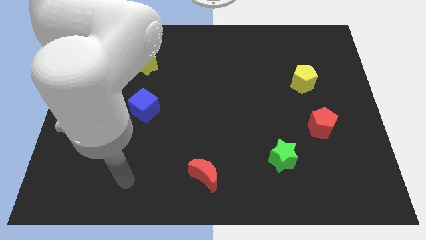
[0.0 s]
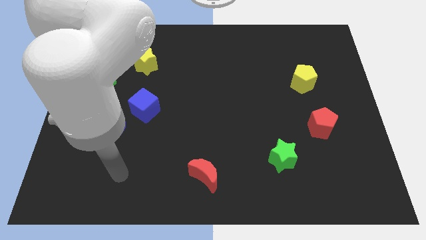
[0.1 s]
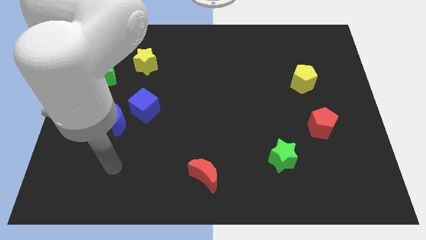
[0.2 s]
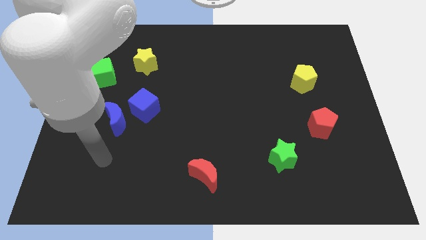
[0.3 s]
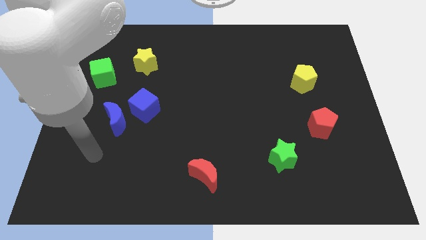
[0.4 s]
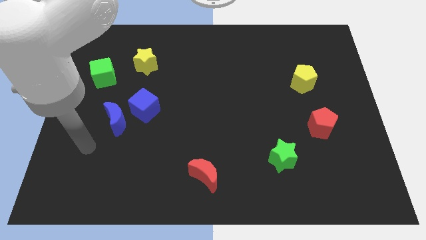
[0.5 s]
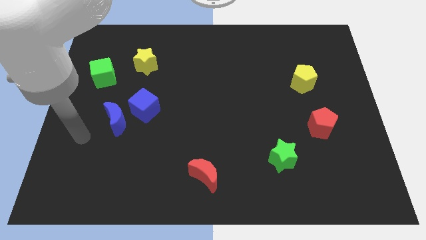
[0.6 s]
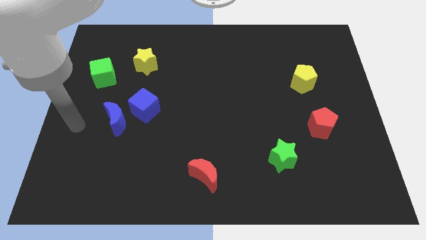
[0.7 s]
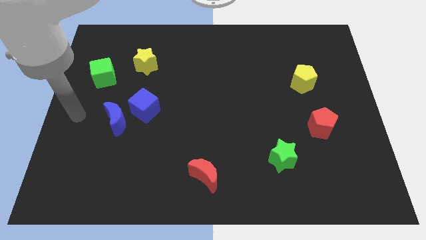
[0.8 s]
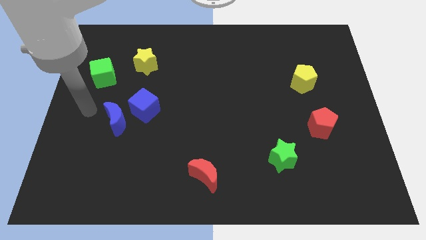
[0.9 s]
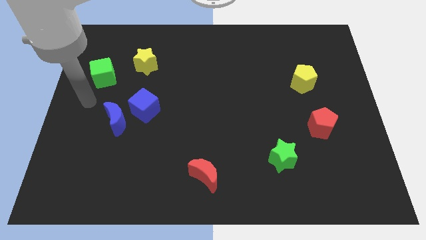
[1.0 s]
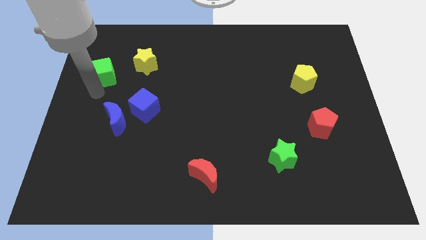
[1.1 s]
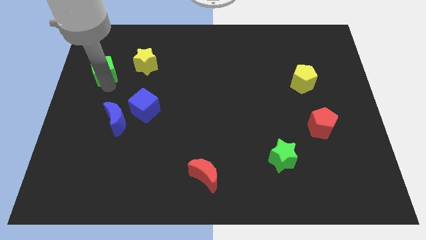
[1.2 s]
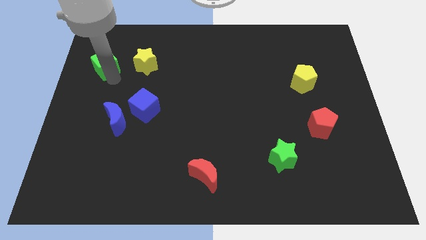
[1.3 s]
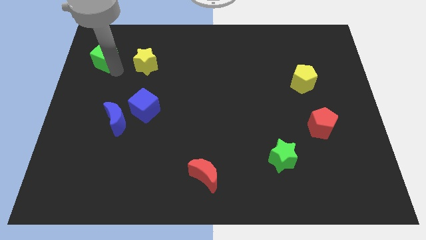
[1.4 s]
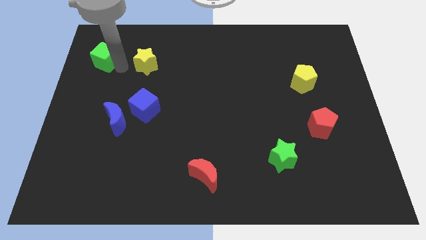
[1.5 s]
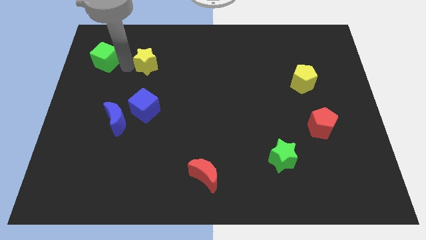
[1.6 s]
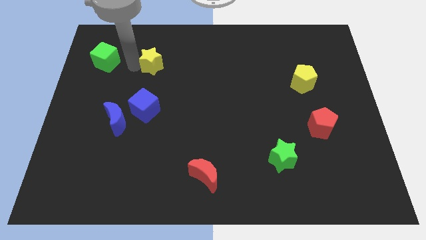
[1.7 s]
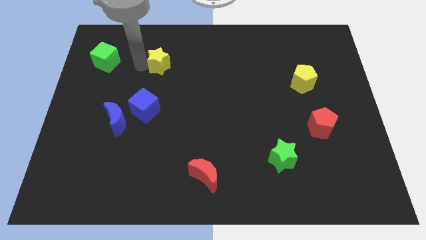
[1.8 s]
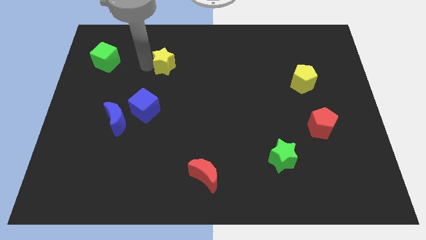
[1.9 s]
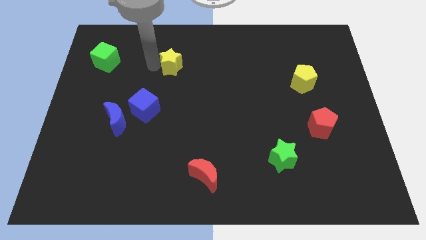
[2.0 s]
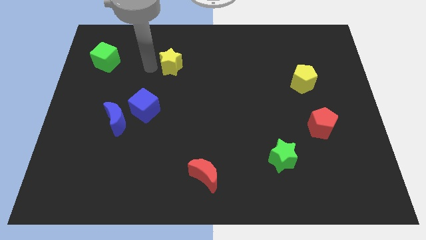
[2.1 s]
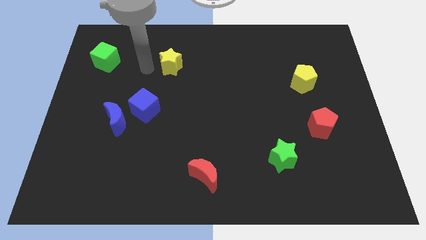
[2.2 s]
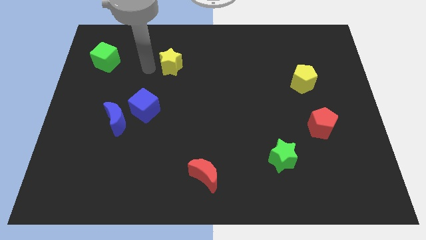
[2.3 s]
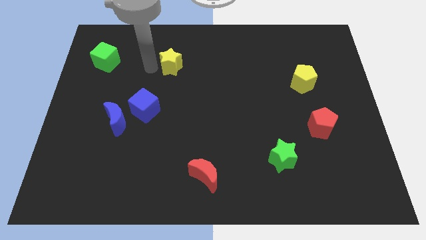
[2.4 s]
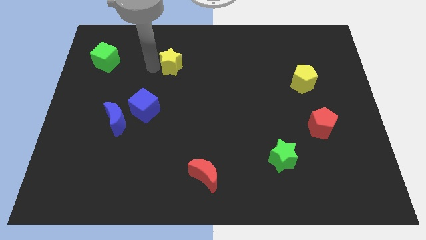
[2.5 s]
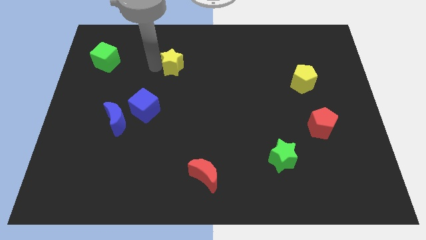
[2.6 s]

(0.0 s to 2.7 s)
push the yellow star a bit to the right

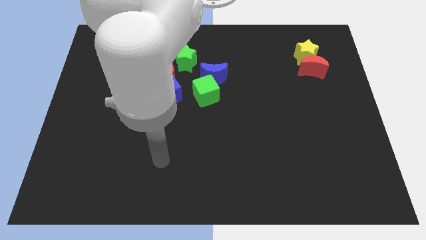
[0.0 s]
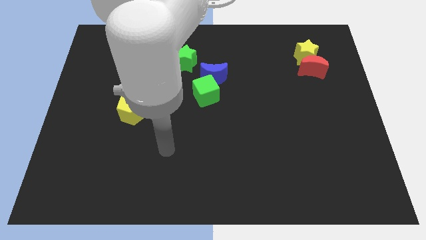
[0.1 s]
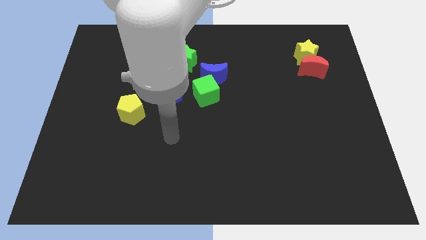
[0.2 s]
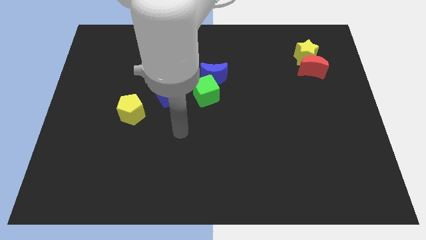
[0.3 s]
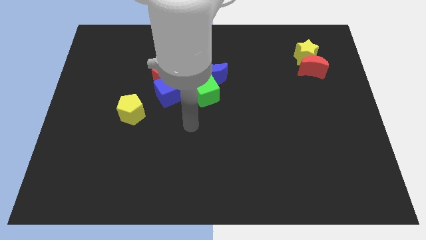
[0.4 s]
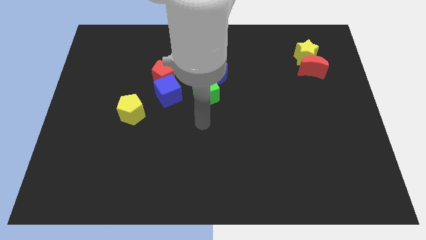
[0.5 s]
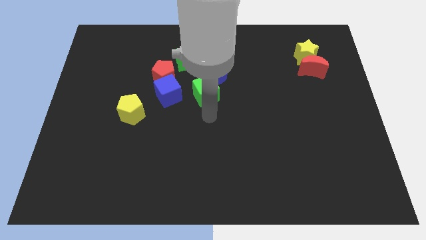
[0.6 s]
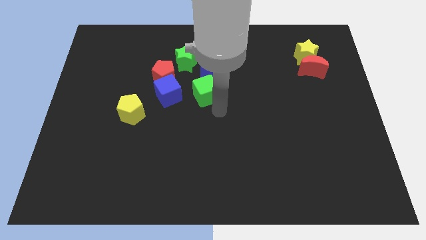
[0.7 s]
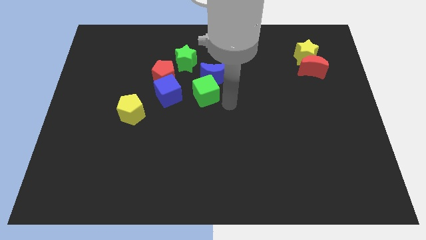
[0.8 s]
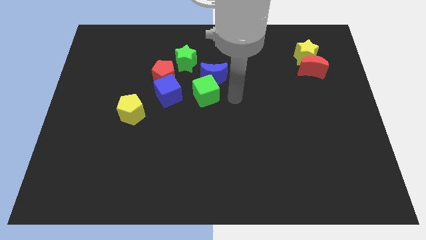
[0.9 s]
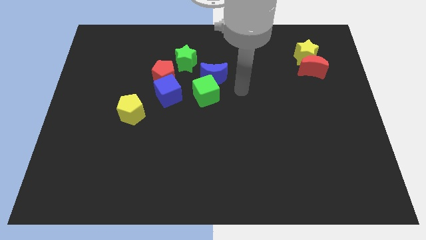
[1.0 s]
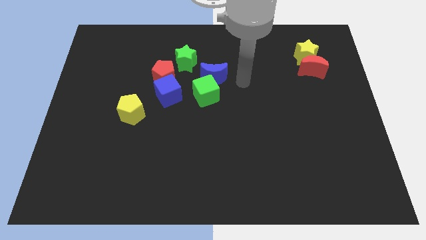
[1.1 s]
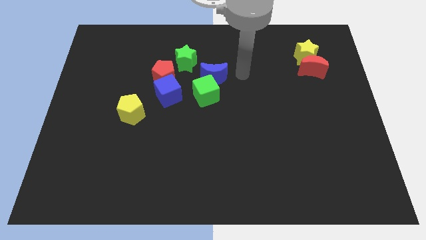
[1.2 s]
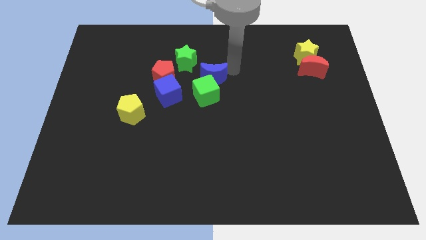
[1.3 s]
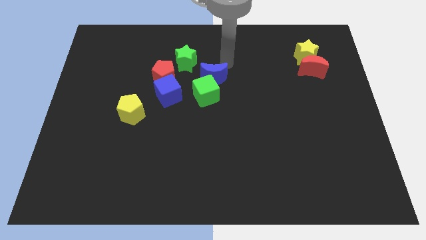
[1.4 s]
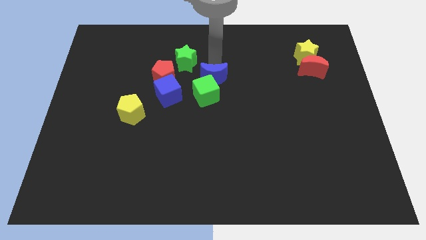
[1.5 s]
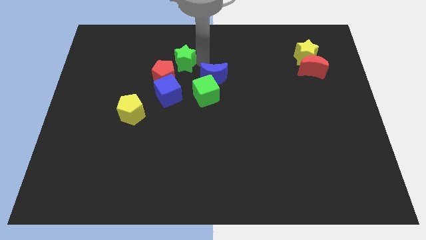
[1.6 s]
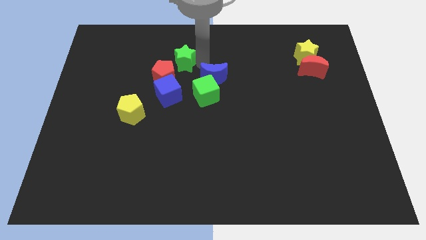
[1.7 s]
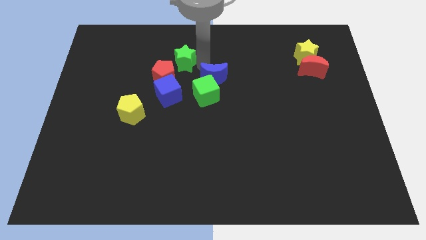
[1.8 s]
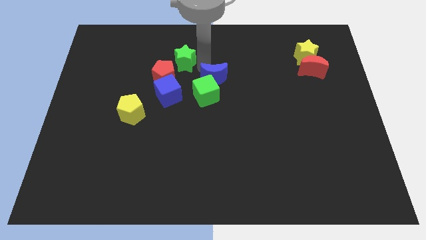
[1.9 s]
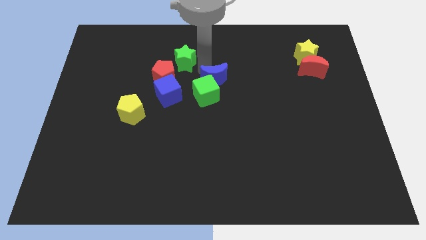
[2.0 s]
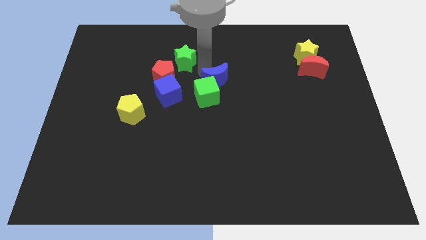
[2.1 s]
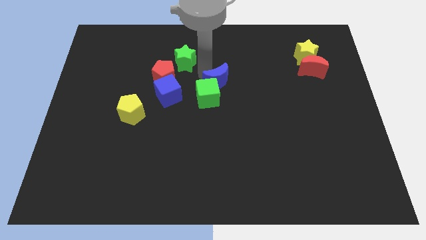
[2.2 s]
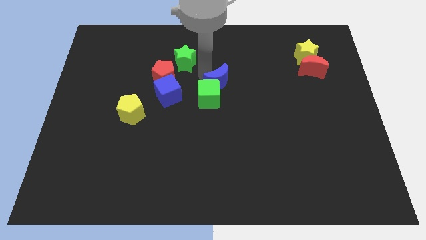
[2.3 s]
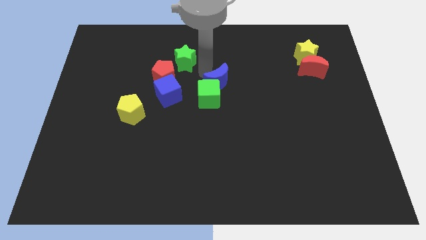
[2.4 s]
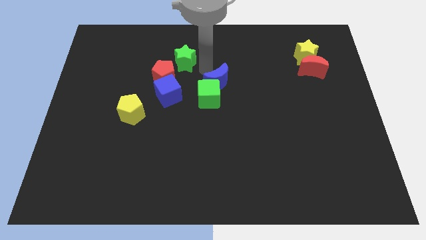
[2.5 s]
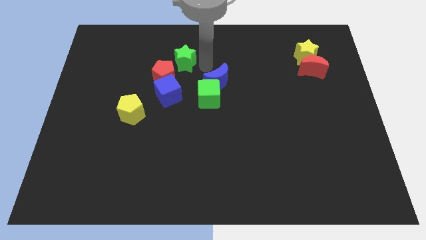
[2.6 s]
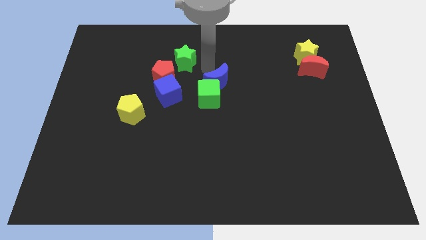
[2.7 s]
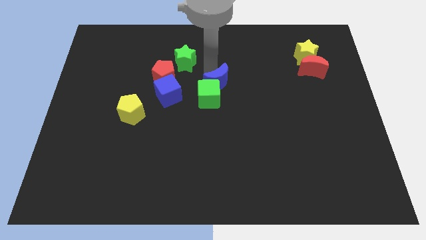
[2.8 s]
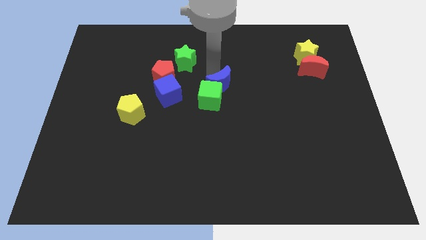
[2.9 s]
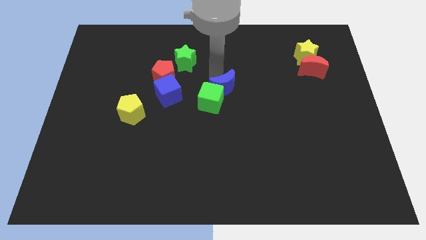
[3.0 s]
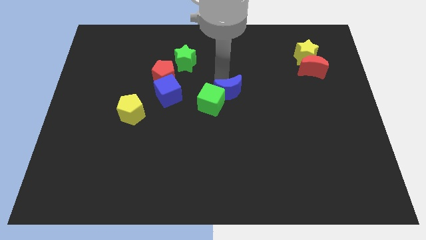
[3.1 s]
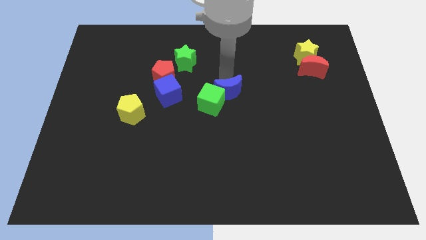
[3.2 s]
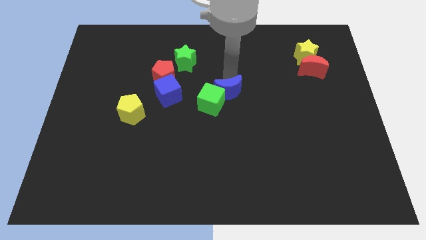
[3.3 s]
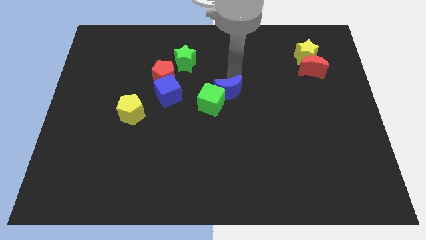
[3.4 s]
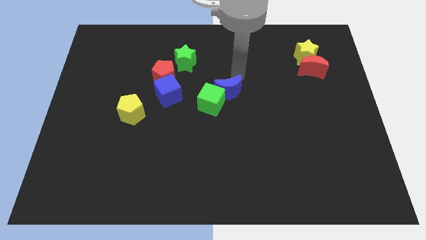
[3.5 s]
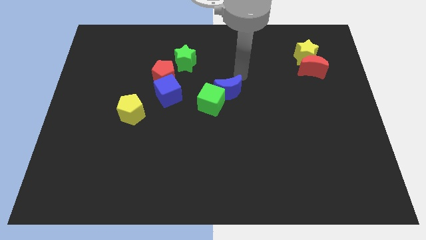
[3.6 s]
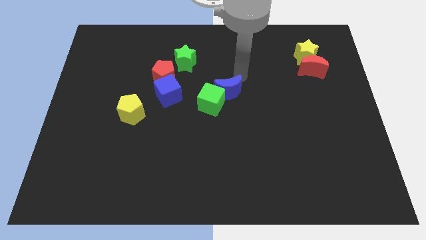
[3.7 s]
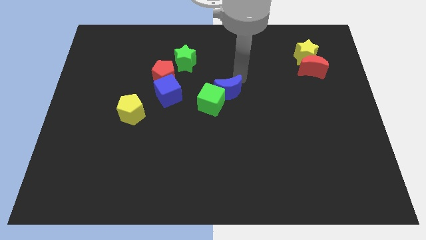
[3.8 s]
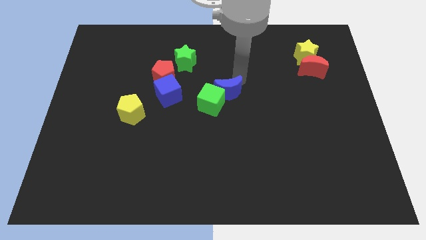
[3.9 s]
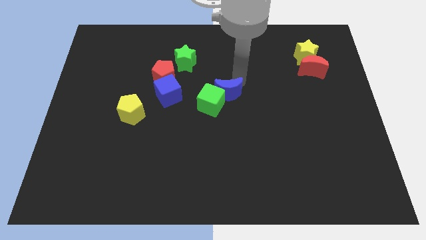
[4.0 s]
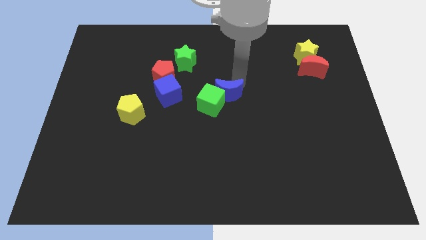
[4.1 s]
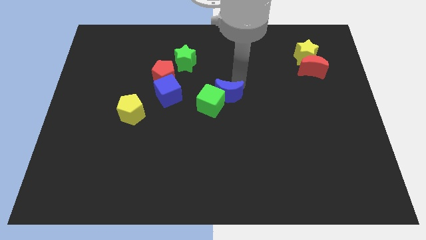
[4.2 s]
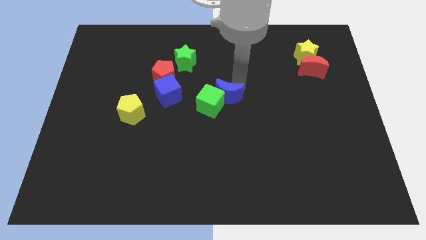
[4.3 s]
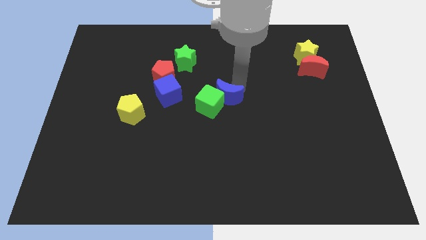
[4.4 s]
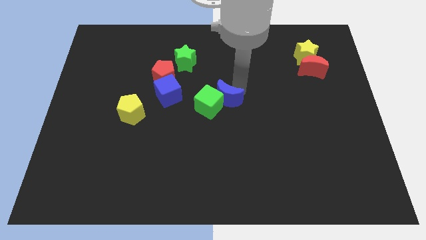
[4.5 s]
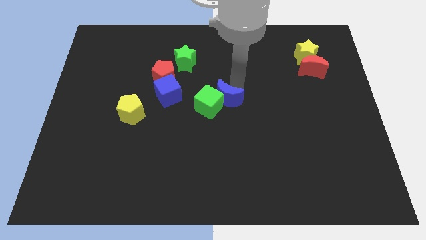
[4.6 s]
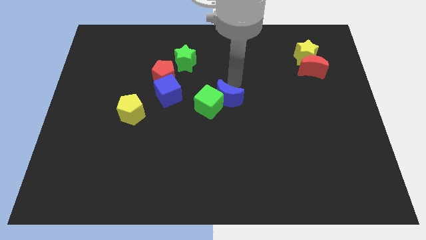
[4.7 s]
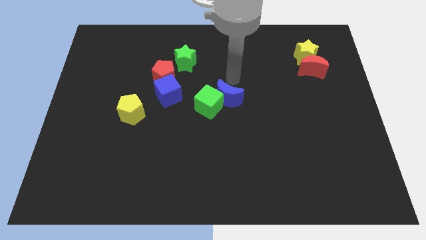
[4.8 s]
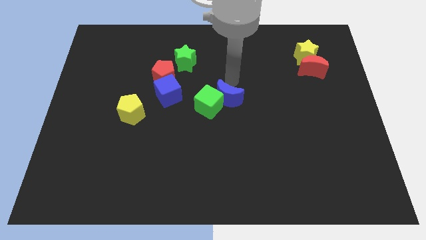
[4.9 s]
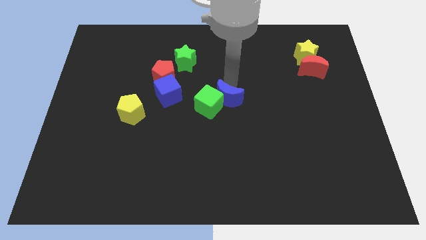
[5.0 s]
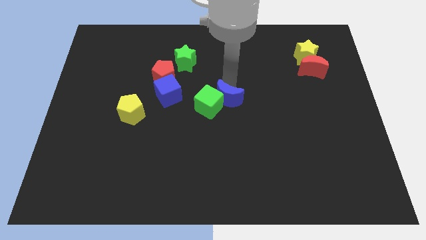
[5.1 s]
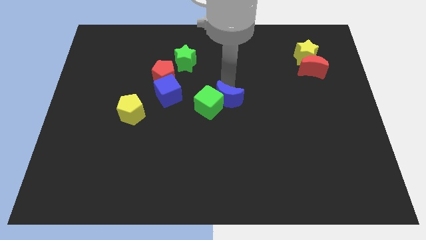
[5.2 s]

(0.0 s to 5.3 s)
slightly slide the blue moon downwards

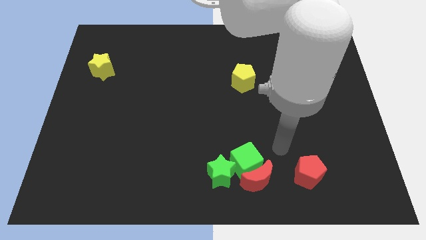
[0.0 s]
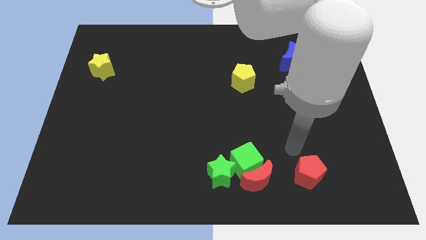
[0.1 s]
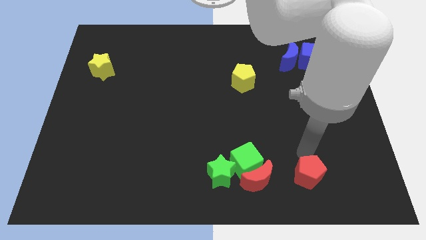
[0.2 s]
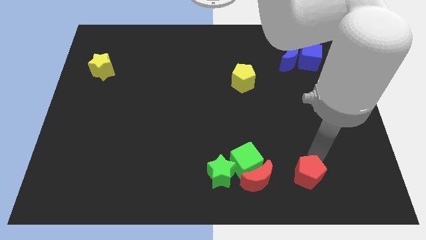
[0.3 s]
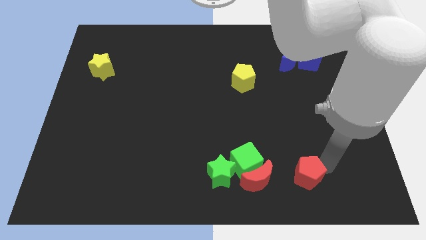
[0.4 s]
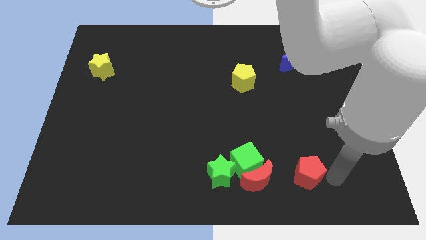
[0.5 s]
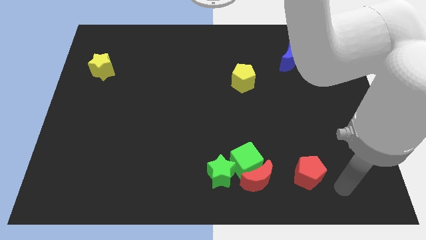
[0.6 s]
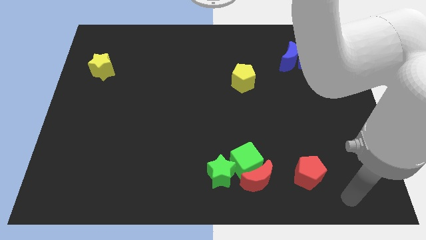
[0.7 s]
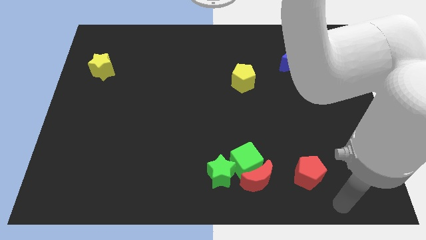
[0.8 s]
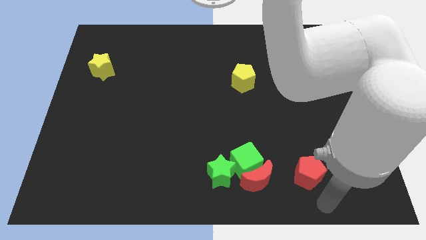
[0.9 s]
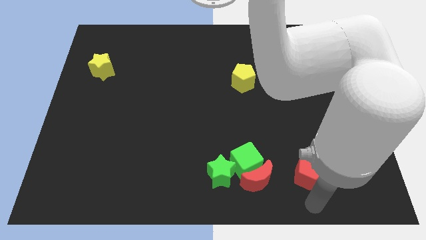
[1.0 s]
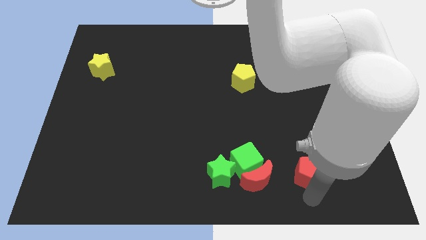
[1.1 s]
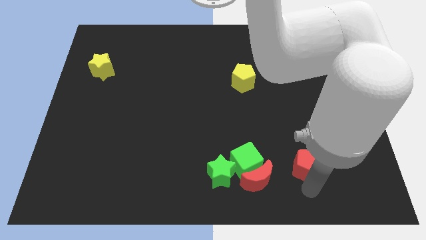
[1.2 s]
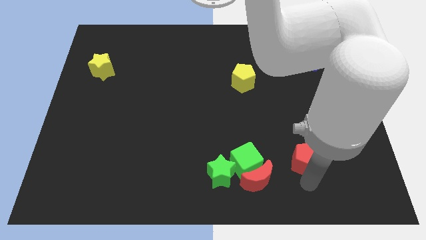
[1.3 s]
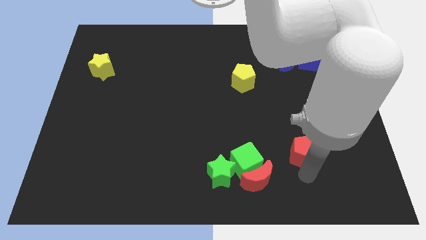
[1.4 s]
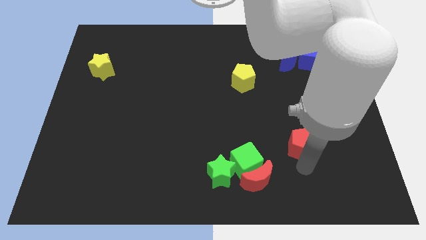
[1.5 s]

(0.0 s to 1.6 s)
slightly move the red pentagon upwards
